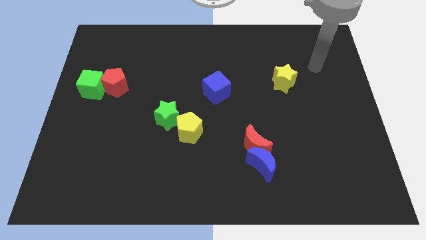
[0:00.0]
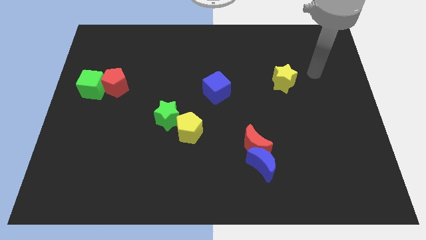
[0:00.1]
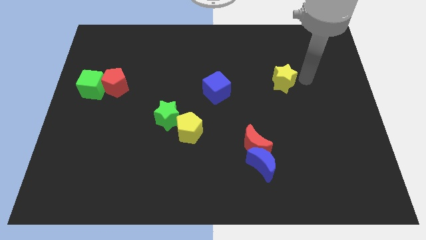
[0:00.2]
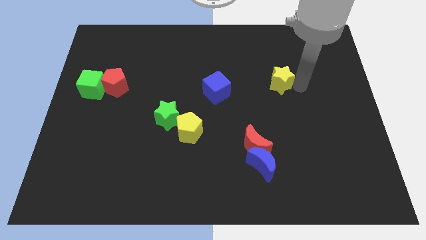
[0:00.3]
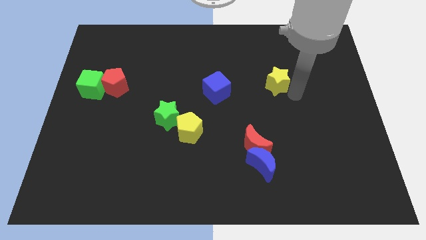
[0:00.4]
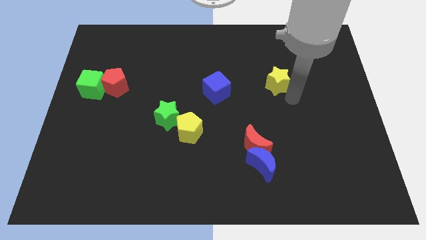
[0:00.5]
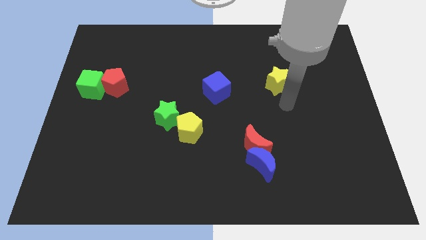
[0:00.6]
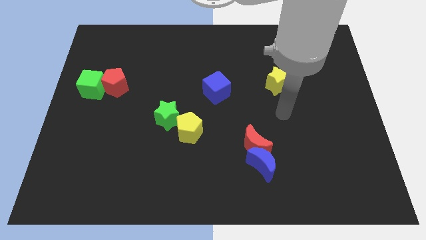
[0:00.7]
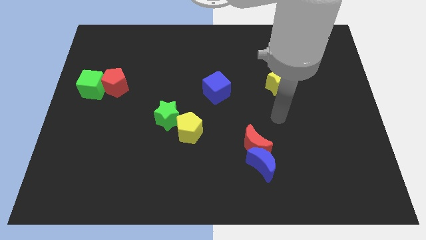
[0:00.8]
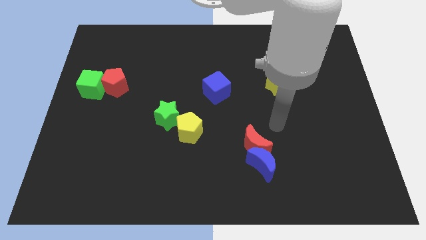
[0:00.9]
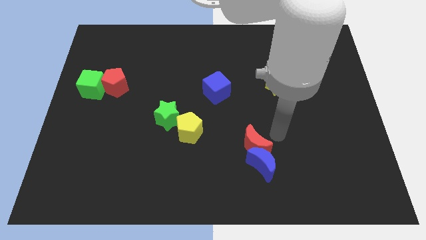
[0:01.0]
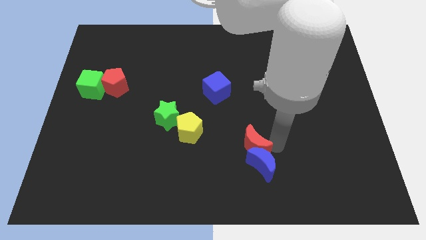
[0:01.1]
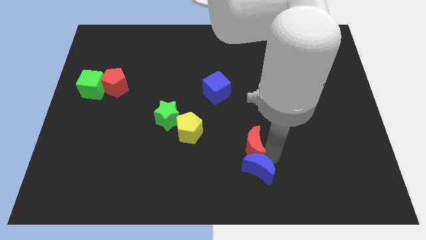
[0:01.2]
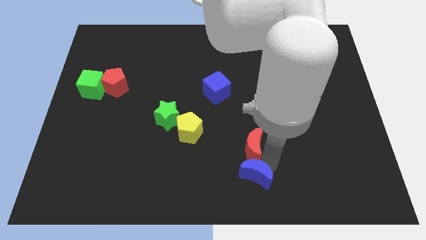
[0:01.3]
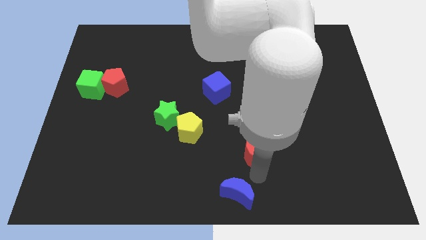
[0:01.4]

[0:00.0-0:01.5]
separate the red moon from the blue moon

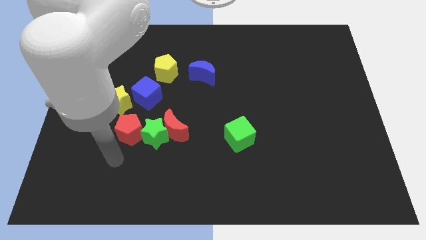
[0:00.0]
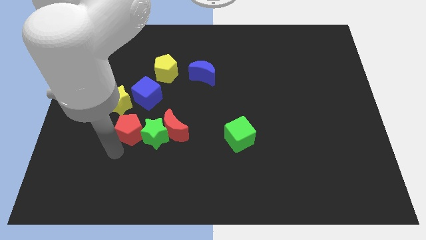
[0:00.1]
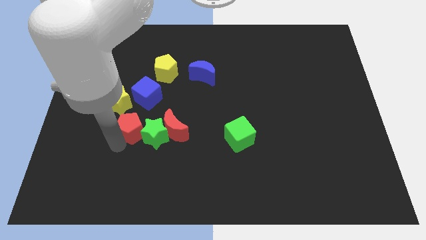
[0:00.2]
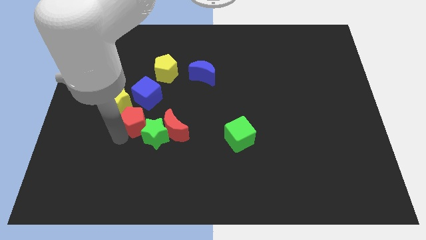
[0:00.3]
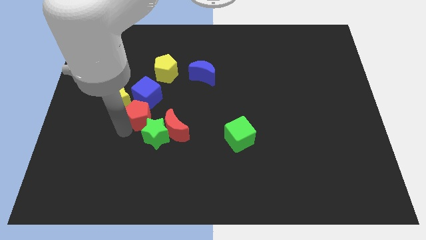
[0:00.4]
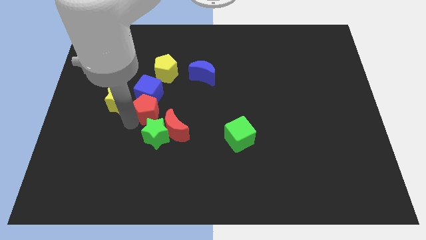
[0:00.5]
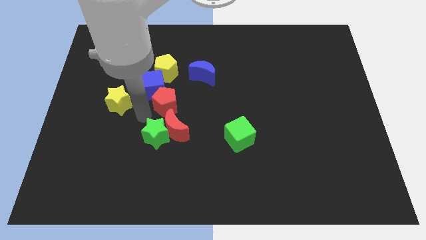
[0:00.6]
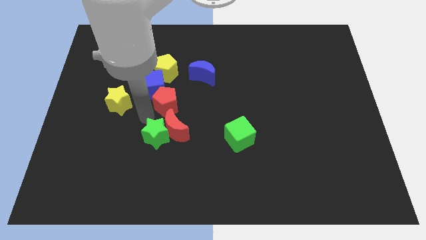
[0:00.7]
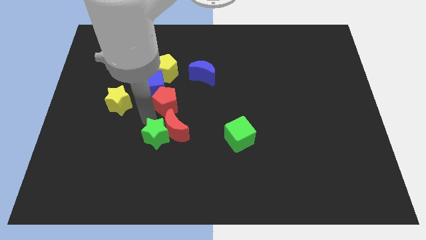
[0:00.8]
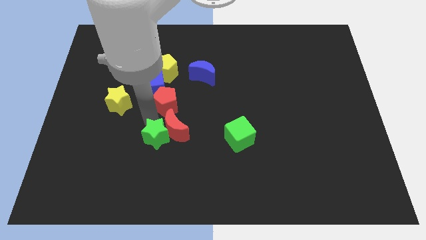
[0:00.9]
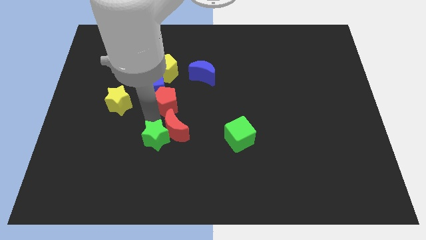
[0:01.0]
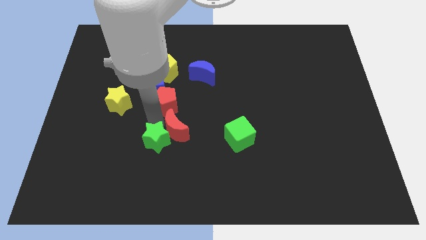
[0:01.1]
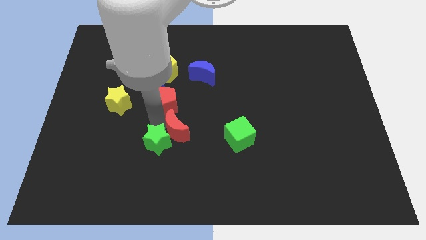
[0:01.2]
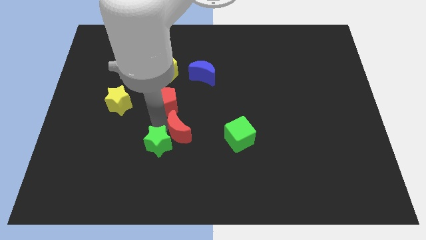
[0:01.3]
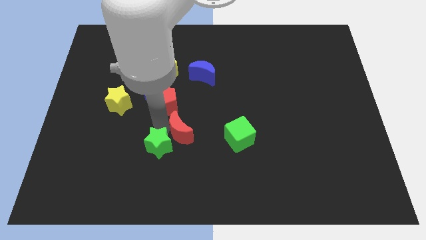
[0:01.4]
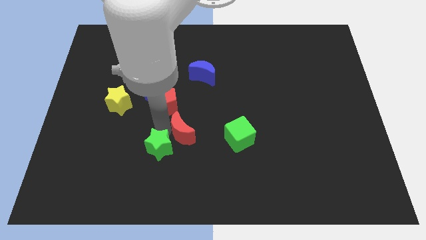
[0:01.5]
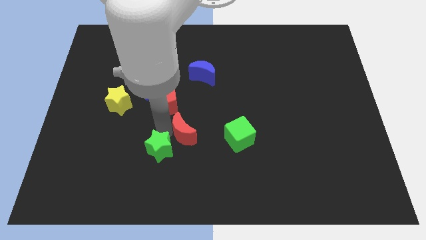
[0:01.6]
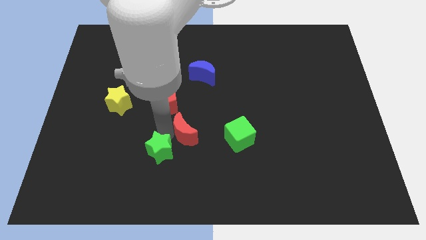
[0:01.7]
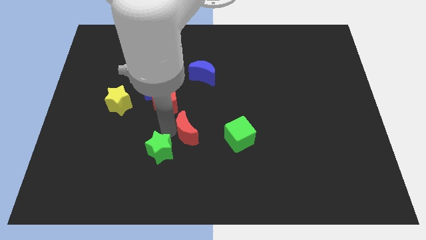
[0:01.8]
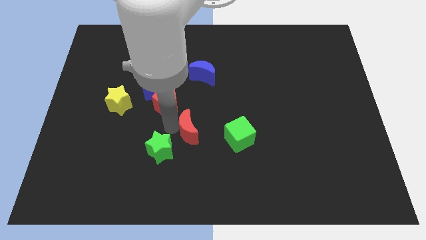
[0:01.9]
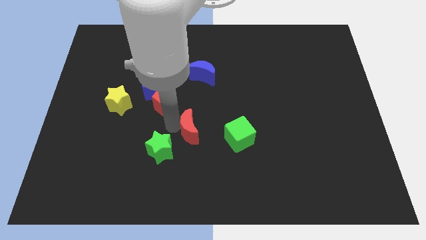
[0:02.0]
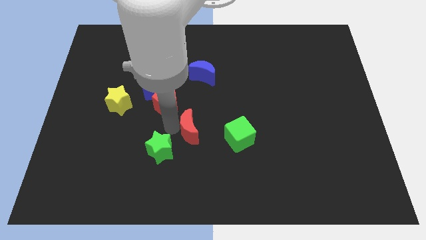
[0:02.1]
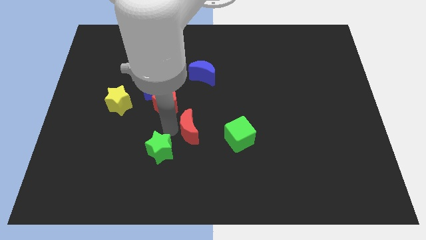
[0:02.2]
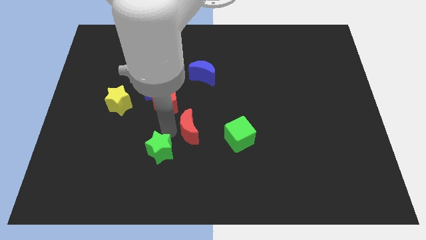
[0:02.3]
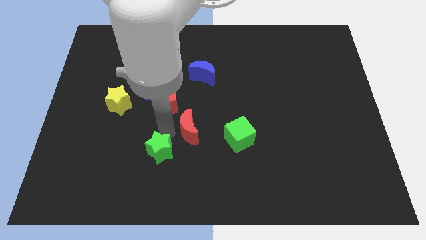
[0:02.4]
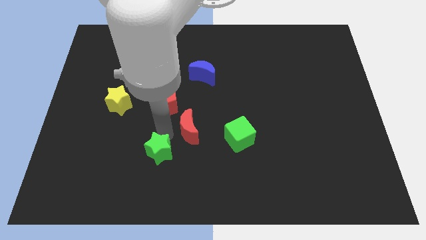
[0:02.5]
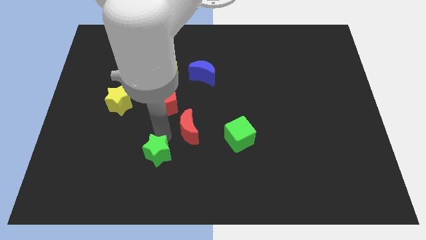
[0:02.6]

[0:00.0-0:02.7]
separate the green star from the red moon and red pentagon

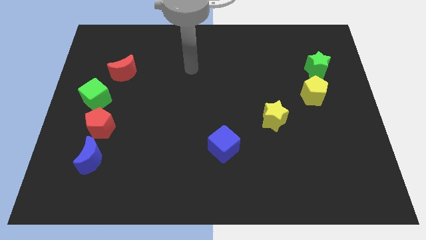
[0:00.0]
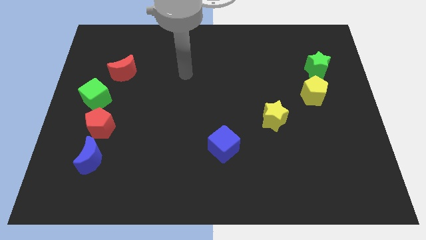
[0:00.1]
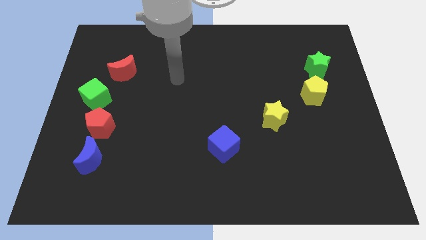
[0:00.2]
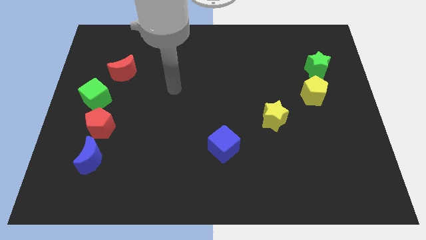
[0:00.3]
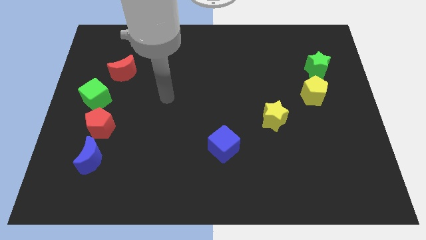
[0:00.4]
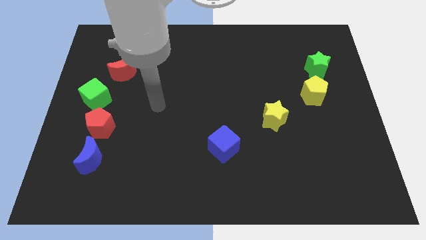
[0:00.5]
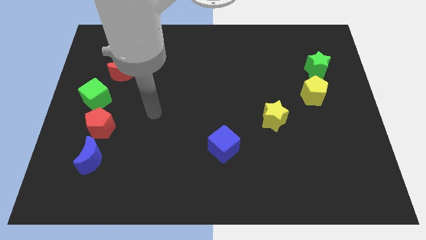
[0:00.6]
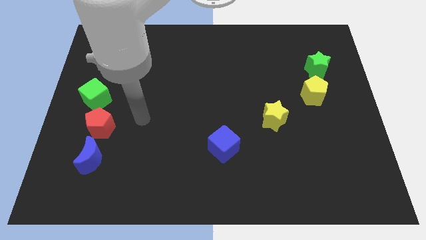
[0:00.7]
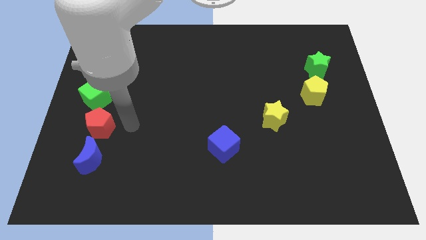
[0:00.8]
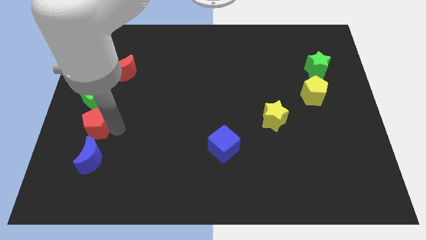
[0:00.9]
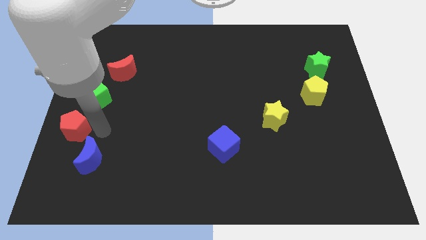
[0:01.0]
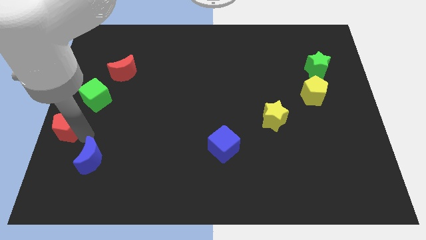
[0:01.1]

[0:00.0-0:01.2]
separate the blue moon from the red pentagon

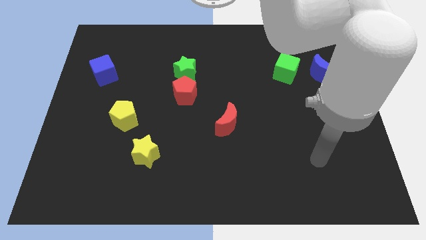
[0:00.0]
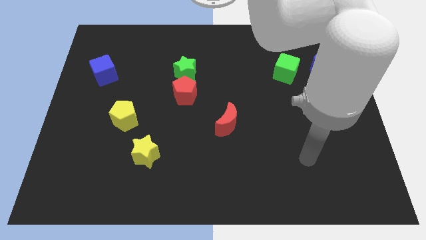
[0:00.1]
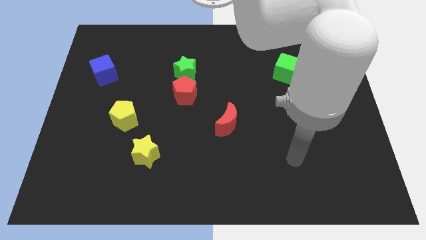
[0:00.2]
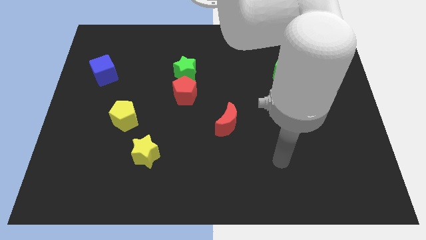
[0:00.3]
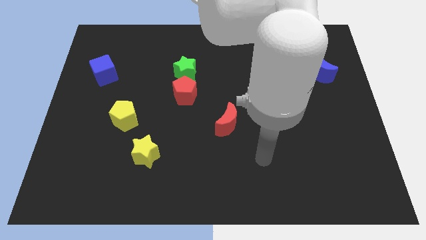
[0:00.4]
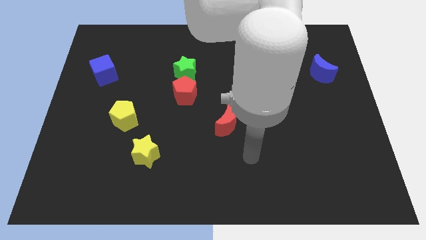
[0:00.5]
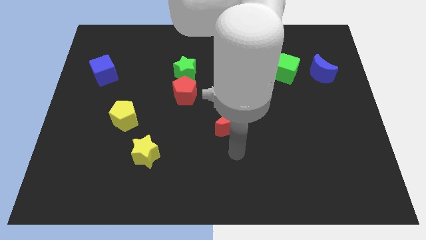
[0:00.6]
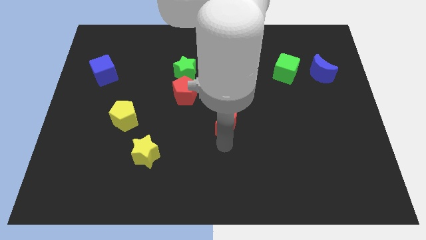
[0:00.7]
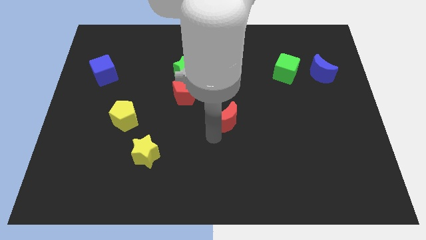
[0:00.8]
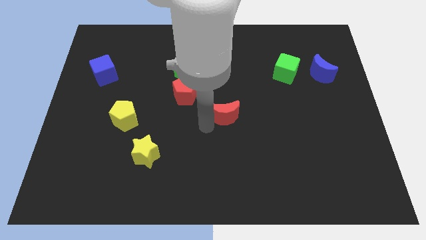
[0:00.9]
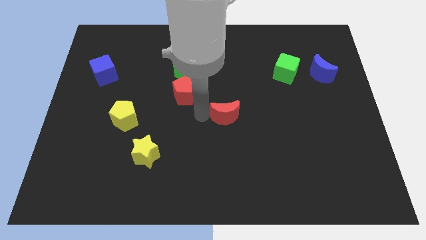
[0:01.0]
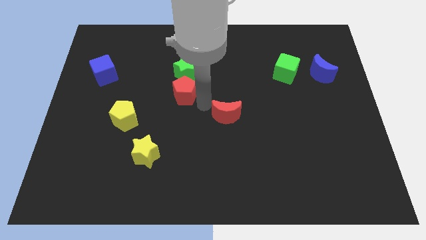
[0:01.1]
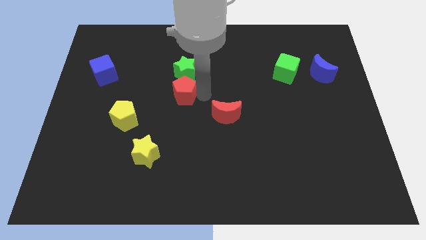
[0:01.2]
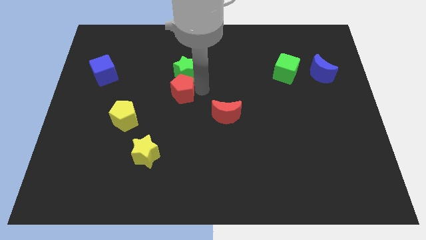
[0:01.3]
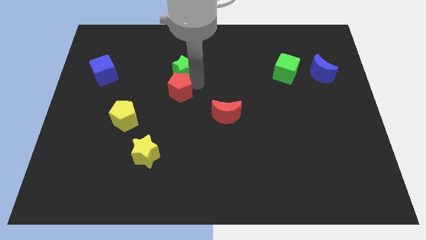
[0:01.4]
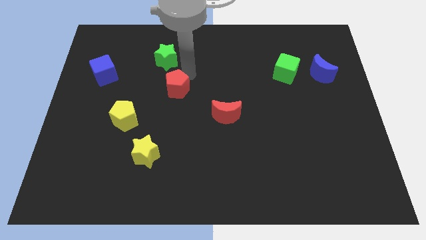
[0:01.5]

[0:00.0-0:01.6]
separate the red pentagon from the green star

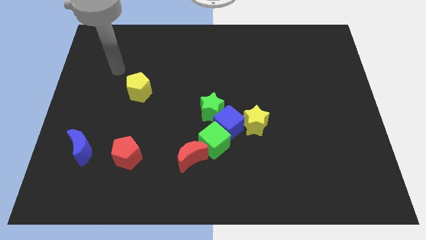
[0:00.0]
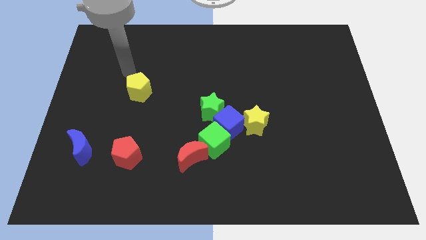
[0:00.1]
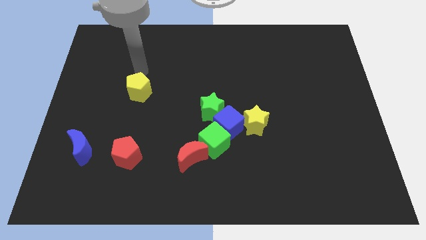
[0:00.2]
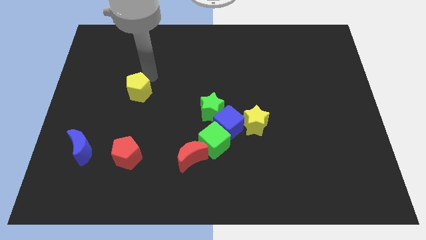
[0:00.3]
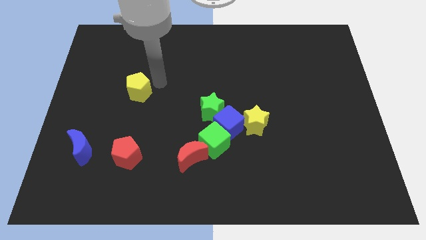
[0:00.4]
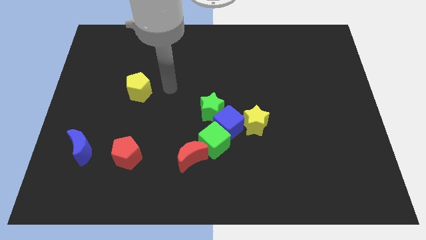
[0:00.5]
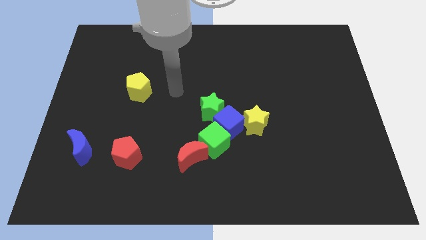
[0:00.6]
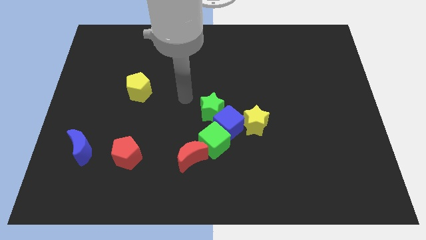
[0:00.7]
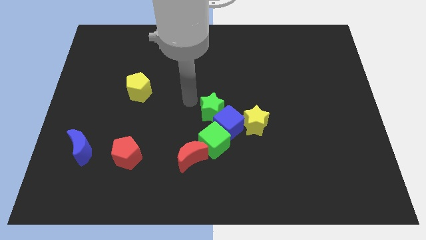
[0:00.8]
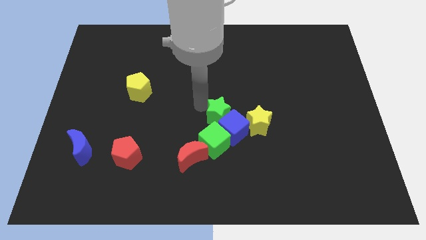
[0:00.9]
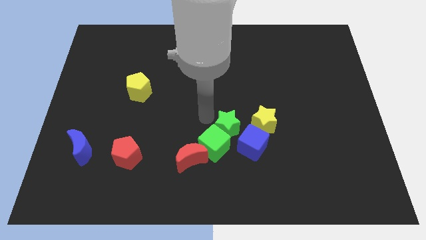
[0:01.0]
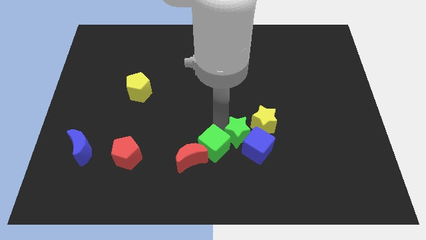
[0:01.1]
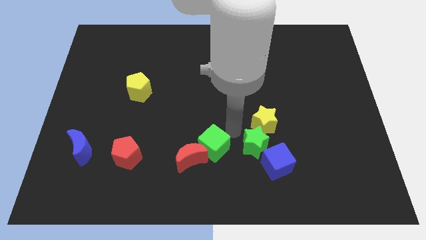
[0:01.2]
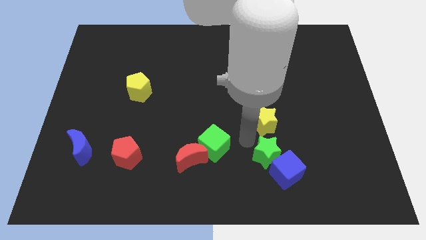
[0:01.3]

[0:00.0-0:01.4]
separate the blue cube from the clump

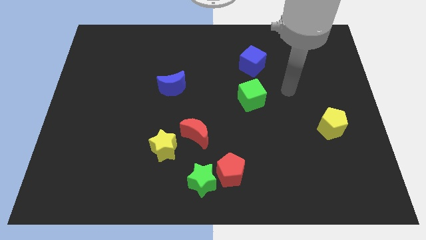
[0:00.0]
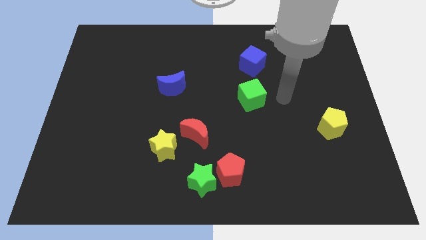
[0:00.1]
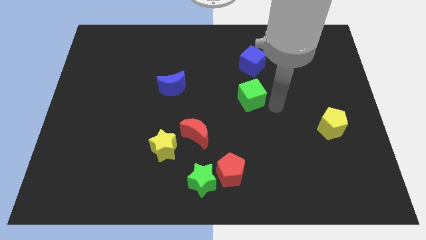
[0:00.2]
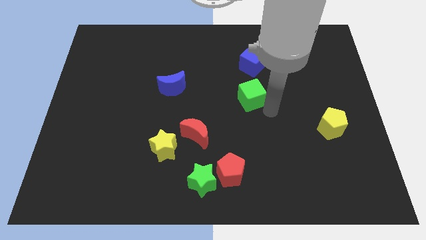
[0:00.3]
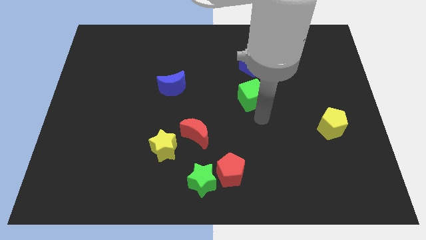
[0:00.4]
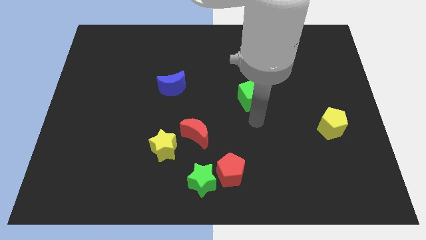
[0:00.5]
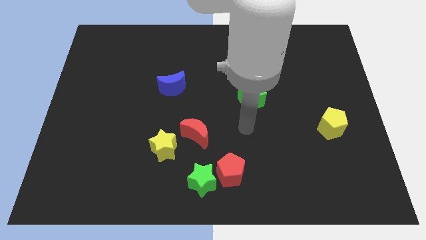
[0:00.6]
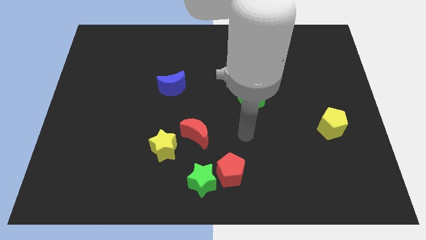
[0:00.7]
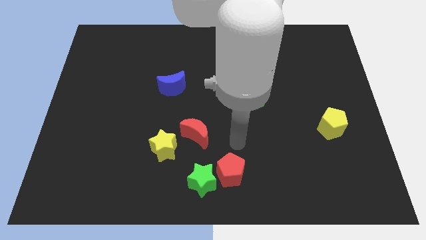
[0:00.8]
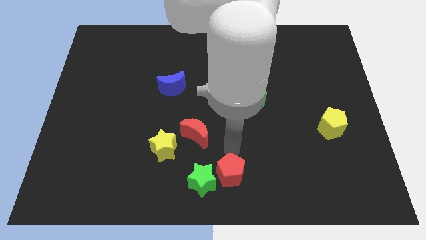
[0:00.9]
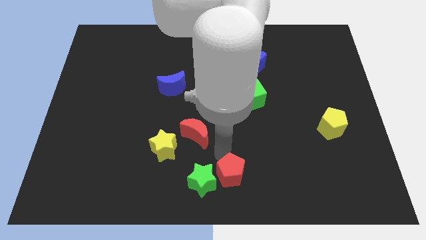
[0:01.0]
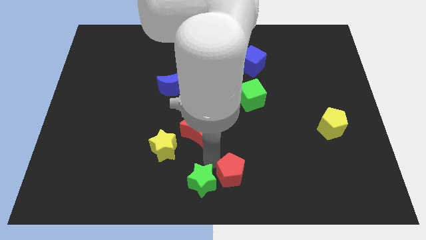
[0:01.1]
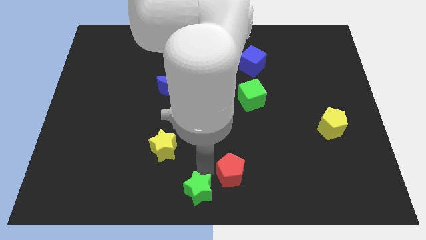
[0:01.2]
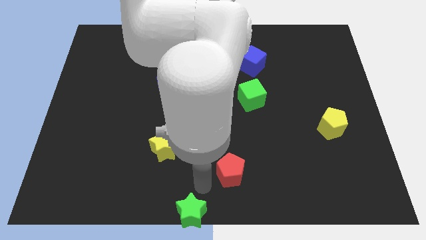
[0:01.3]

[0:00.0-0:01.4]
move the red pentagon away from the green star
